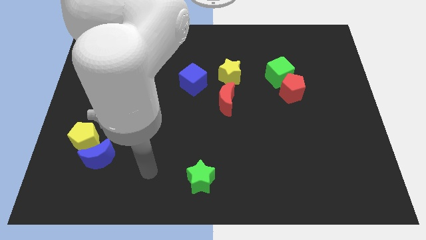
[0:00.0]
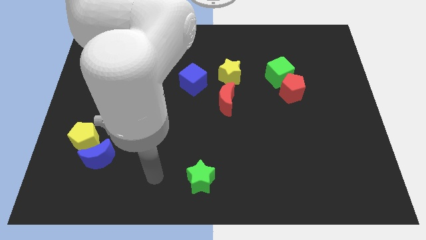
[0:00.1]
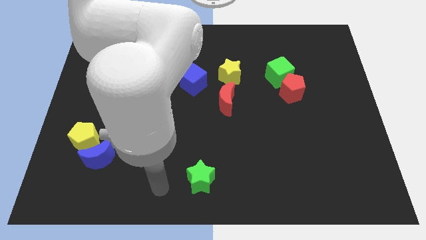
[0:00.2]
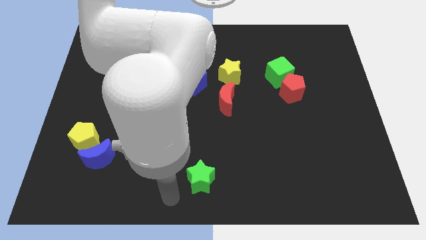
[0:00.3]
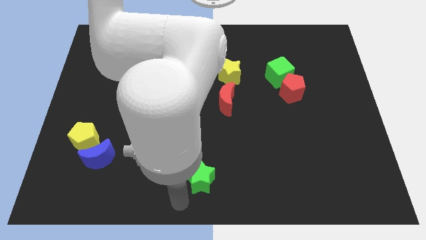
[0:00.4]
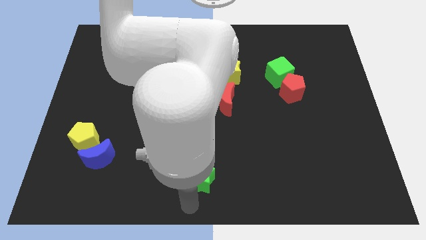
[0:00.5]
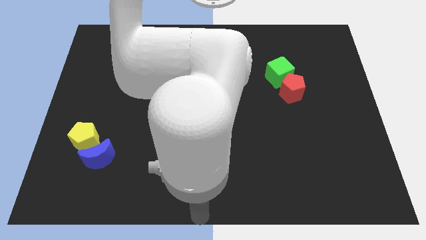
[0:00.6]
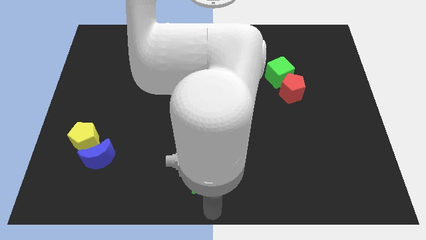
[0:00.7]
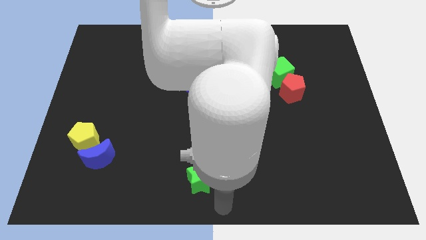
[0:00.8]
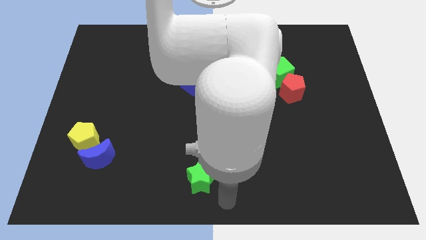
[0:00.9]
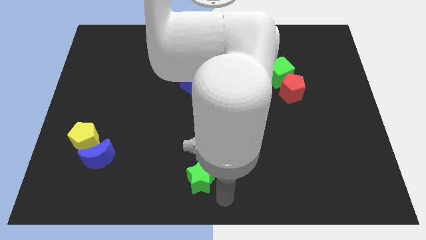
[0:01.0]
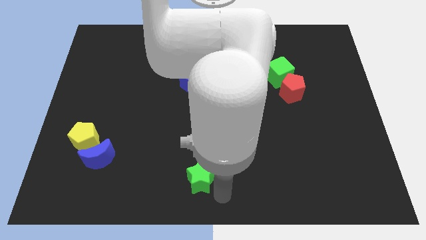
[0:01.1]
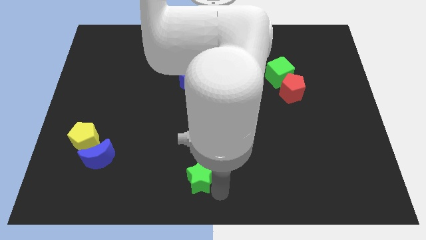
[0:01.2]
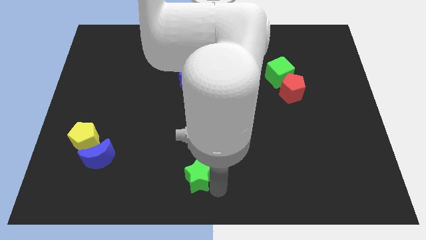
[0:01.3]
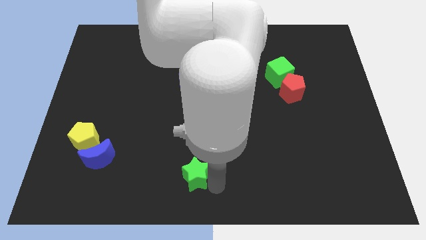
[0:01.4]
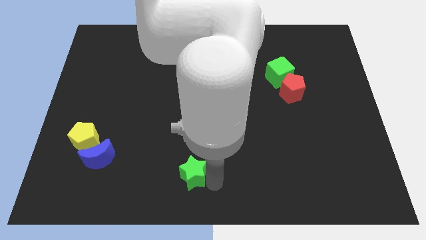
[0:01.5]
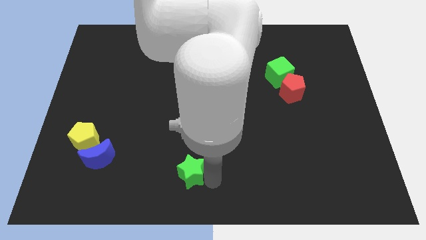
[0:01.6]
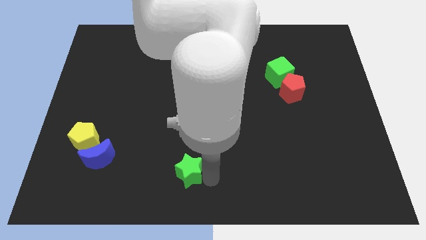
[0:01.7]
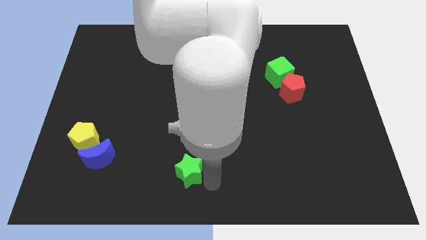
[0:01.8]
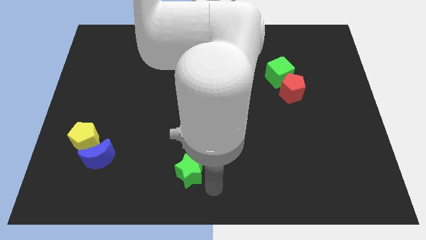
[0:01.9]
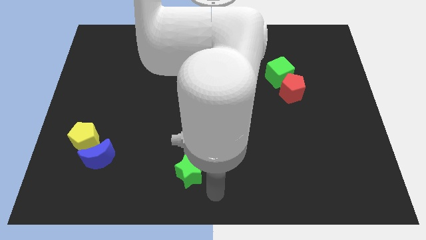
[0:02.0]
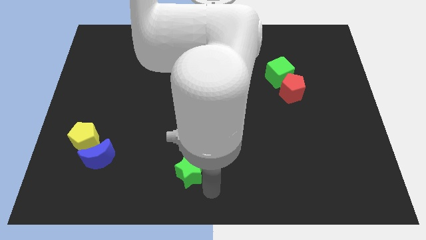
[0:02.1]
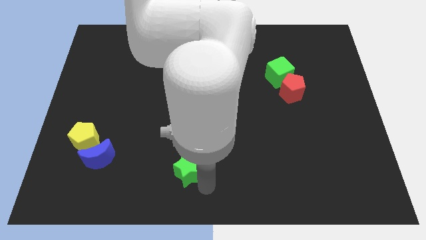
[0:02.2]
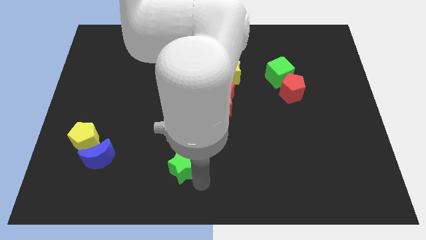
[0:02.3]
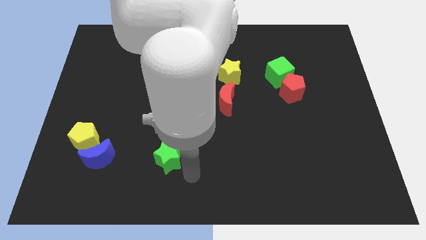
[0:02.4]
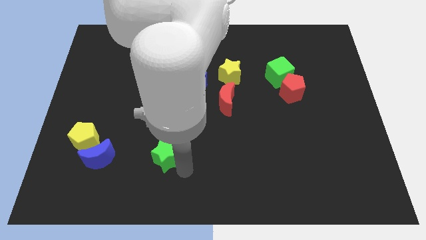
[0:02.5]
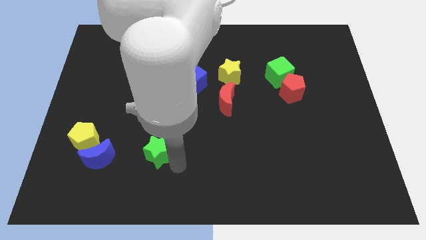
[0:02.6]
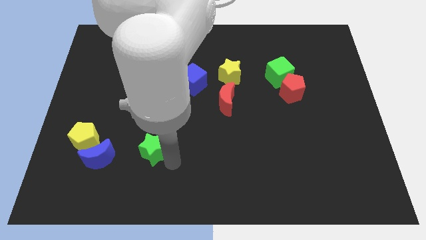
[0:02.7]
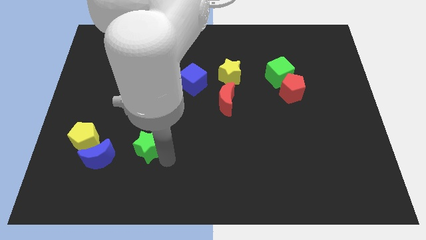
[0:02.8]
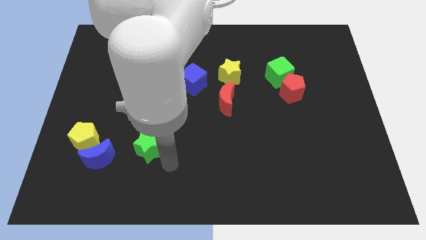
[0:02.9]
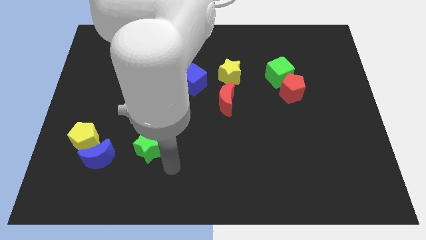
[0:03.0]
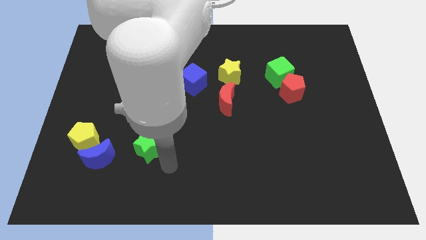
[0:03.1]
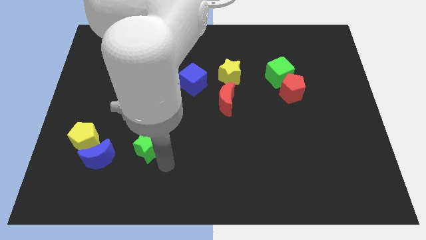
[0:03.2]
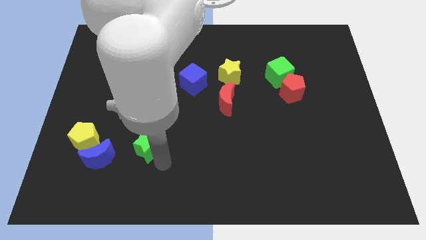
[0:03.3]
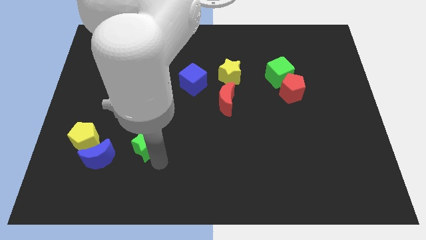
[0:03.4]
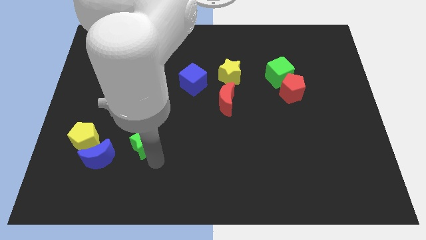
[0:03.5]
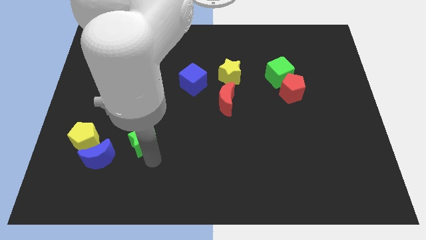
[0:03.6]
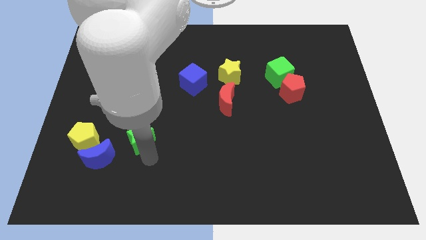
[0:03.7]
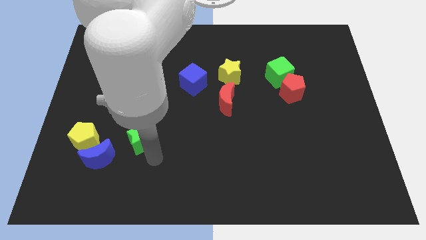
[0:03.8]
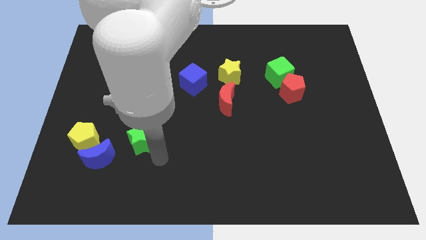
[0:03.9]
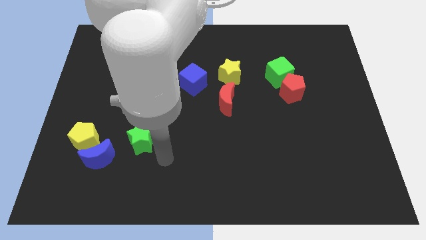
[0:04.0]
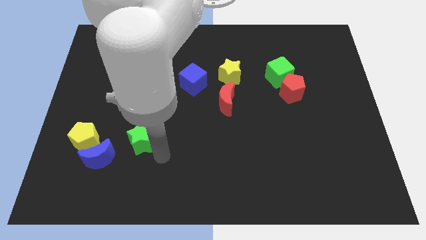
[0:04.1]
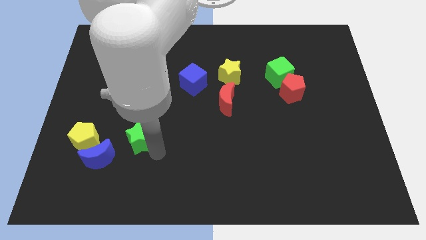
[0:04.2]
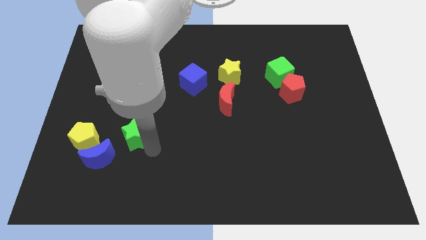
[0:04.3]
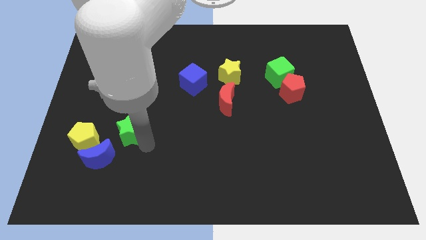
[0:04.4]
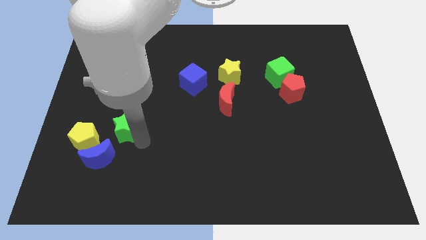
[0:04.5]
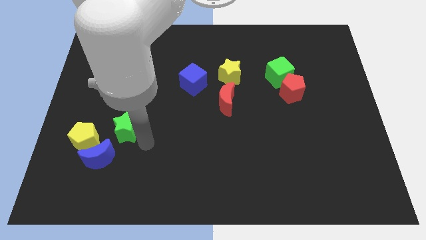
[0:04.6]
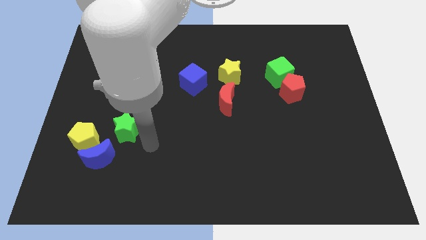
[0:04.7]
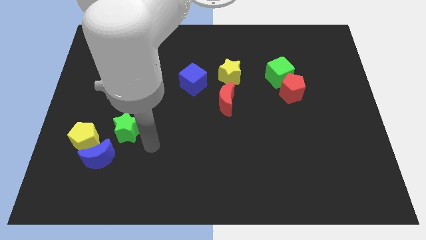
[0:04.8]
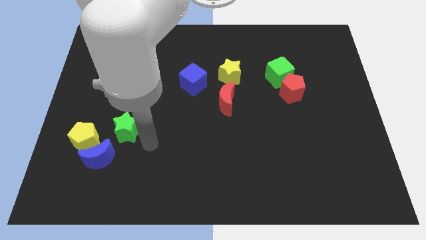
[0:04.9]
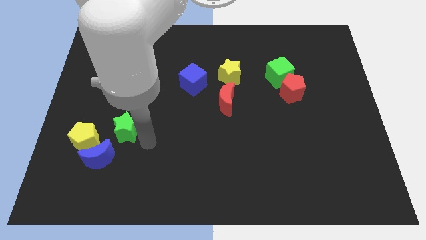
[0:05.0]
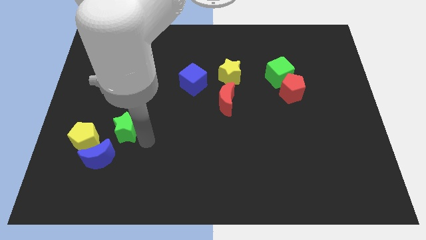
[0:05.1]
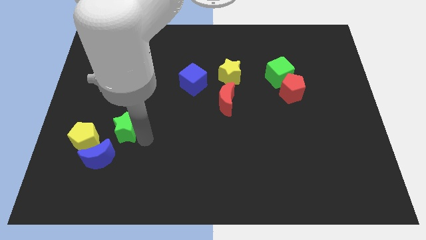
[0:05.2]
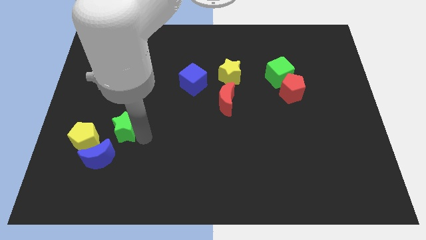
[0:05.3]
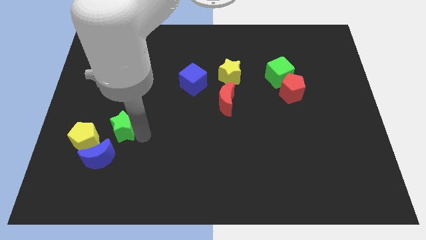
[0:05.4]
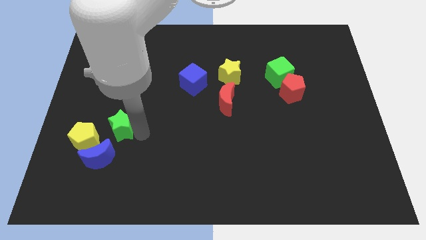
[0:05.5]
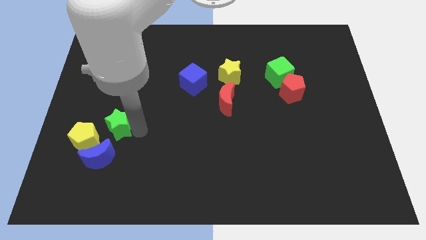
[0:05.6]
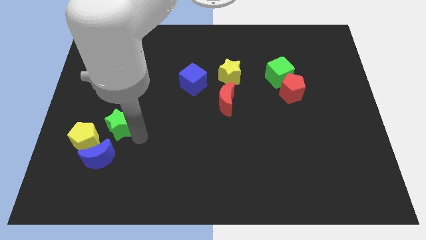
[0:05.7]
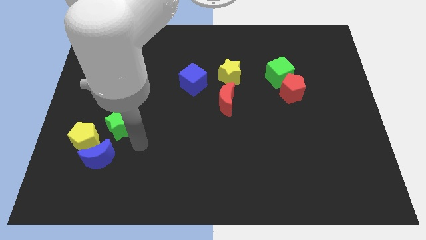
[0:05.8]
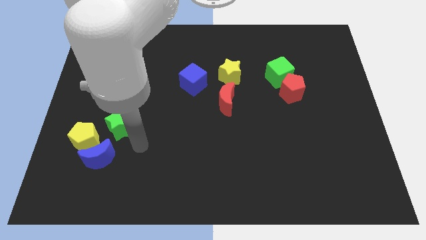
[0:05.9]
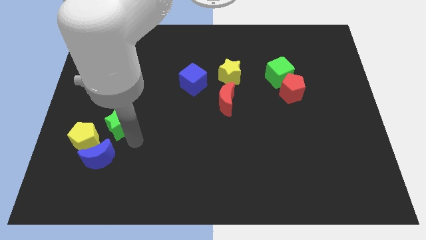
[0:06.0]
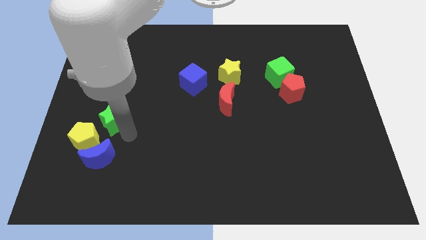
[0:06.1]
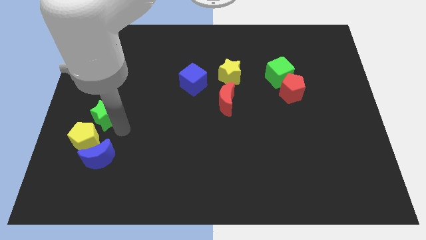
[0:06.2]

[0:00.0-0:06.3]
push the green star above the yellow pentagon
